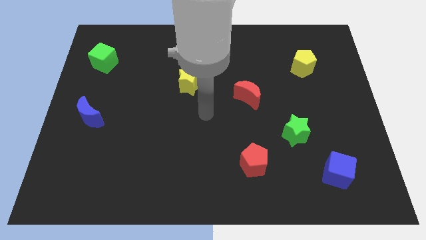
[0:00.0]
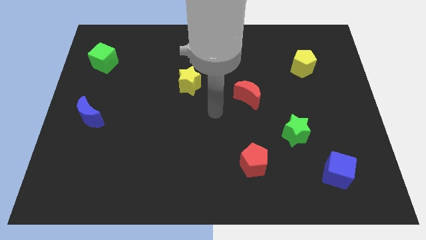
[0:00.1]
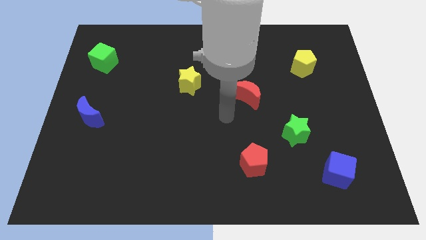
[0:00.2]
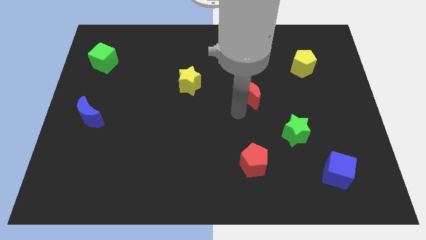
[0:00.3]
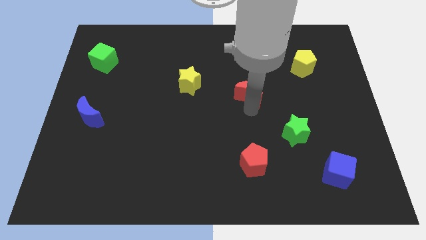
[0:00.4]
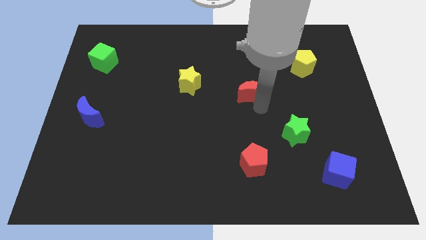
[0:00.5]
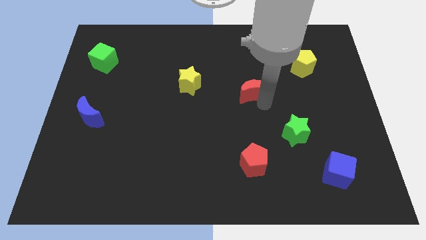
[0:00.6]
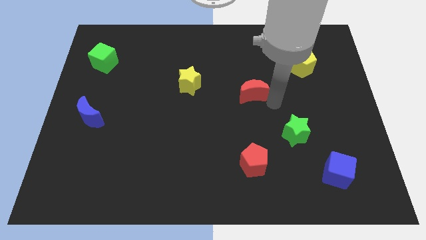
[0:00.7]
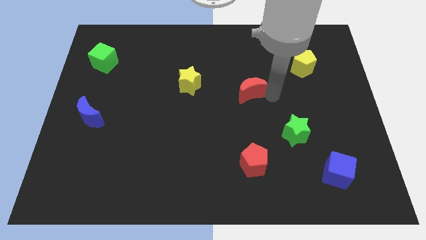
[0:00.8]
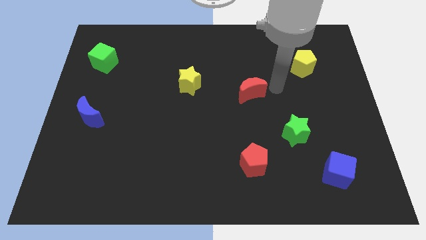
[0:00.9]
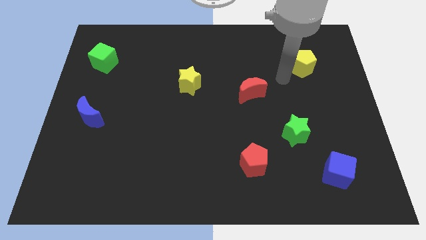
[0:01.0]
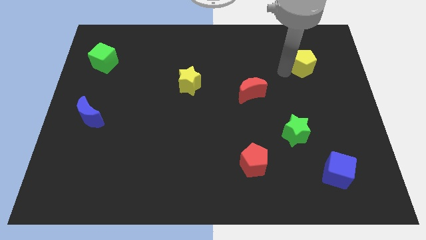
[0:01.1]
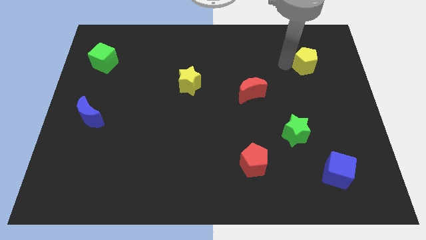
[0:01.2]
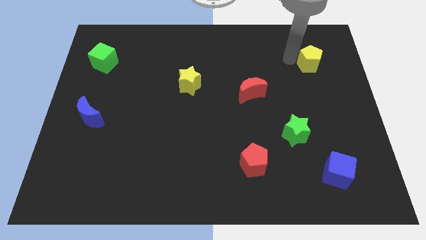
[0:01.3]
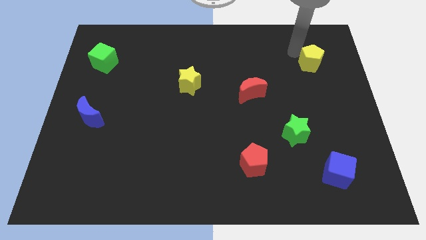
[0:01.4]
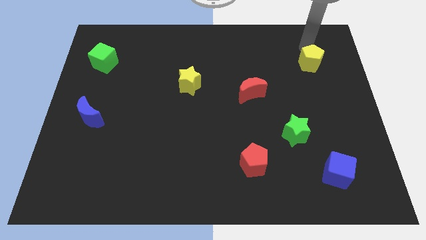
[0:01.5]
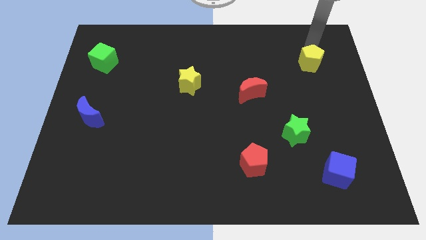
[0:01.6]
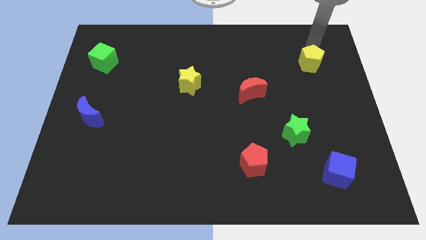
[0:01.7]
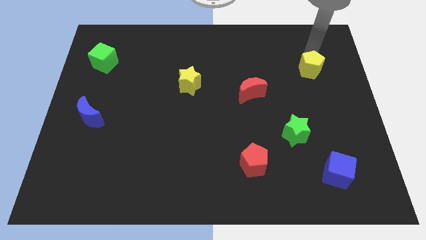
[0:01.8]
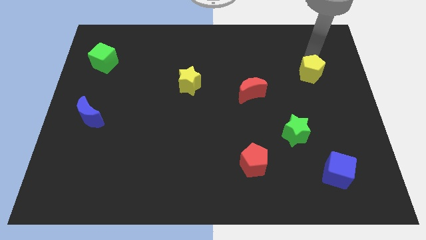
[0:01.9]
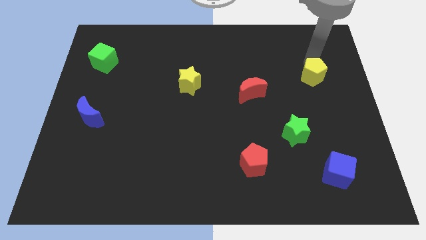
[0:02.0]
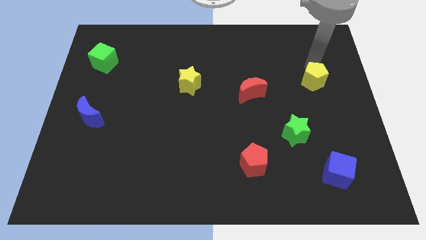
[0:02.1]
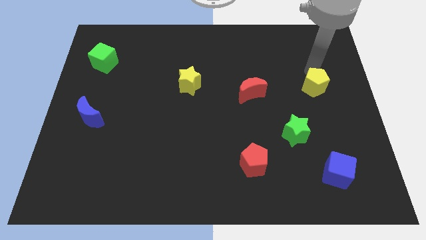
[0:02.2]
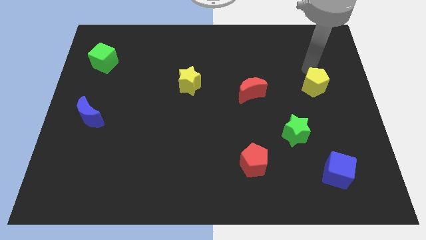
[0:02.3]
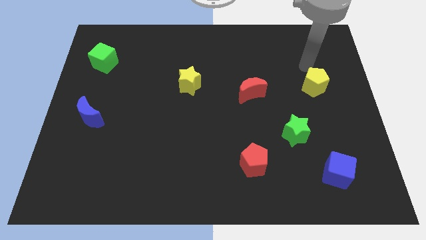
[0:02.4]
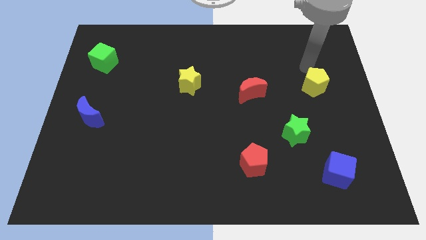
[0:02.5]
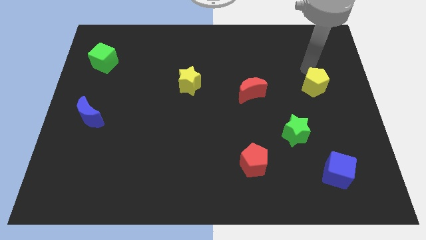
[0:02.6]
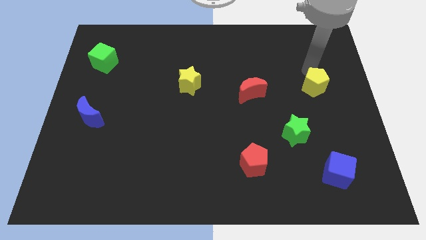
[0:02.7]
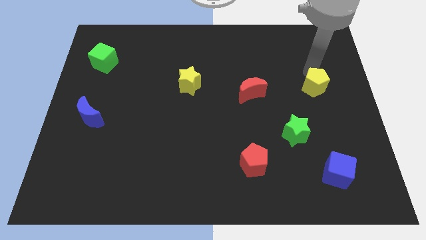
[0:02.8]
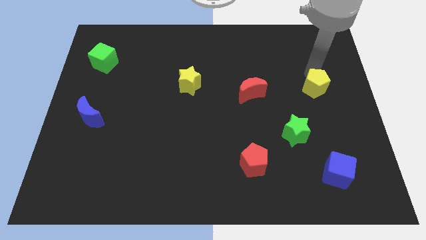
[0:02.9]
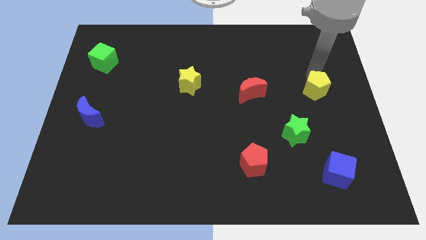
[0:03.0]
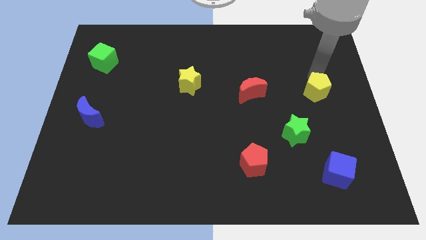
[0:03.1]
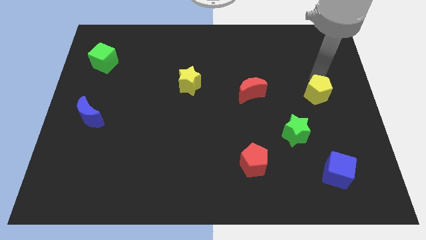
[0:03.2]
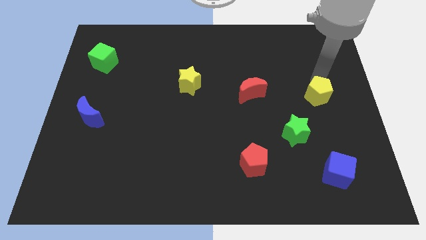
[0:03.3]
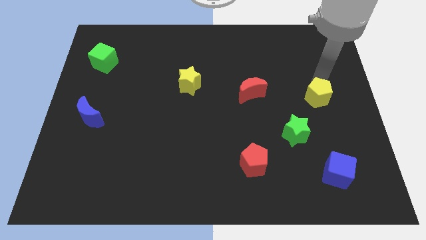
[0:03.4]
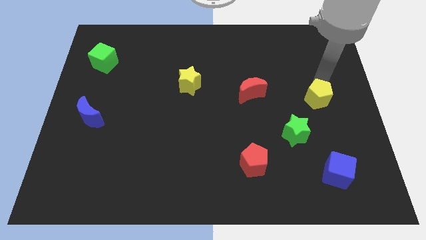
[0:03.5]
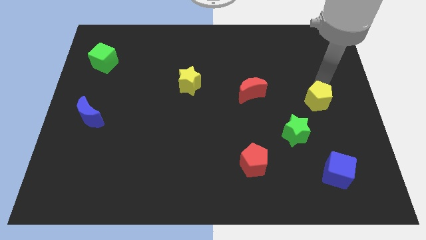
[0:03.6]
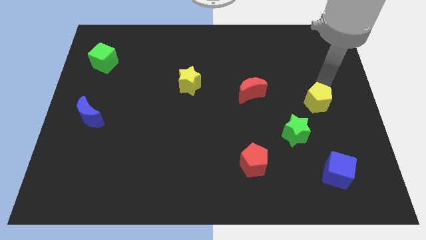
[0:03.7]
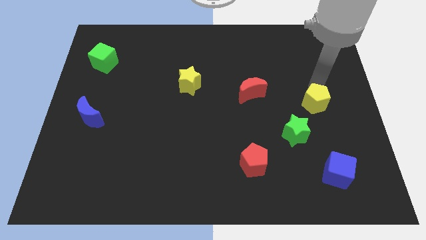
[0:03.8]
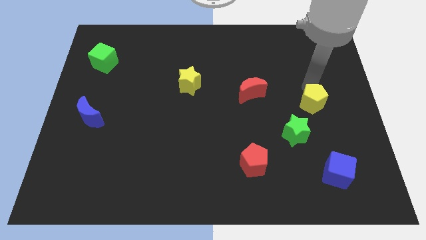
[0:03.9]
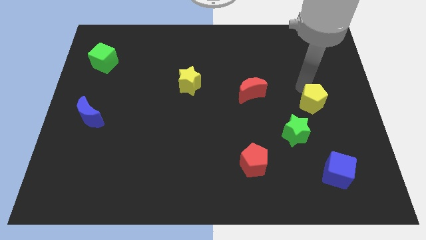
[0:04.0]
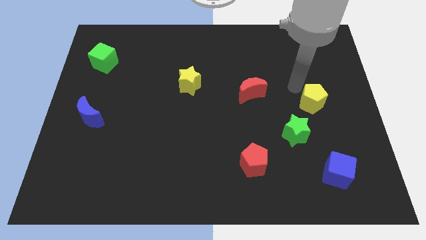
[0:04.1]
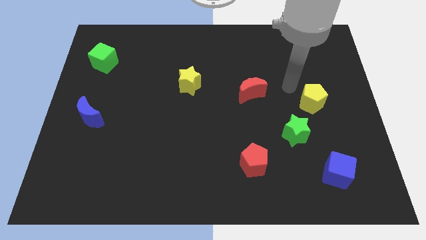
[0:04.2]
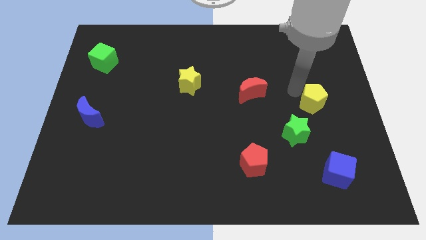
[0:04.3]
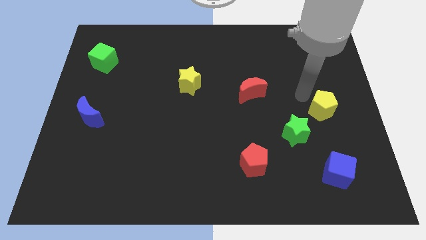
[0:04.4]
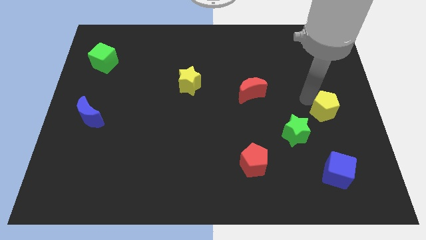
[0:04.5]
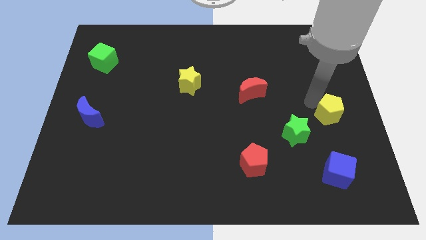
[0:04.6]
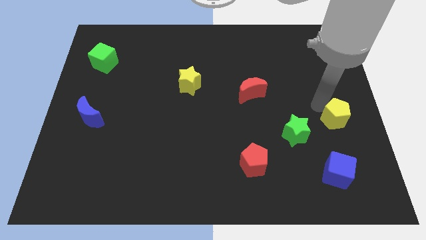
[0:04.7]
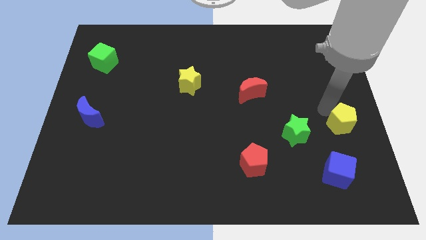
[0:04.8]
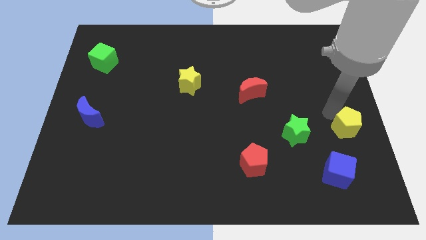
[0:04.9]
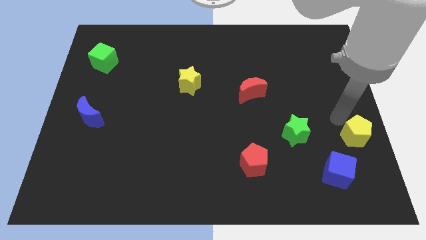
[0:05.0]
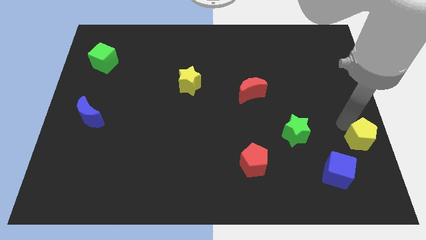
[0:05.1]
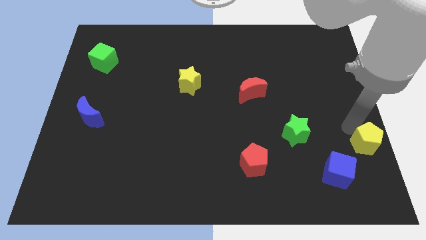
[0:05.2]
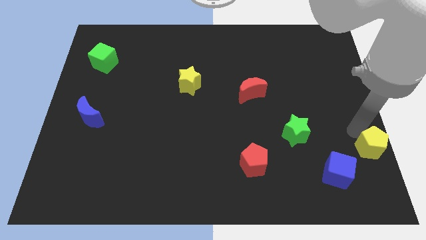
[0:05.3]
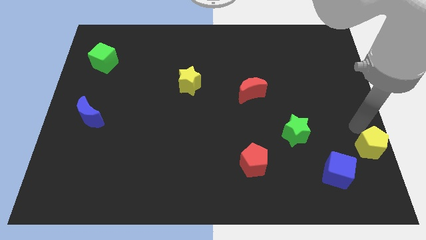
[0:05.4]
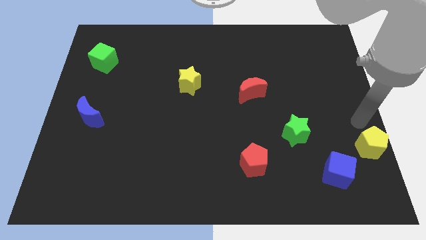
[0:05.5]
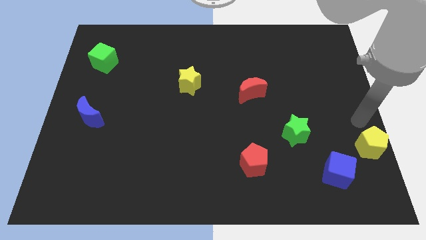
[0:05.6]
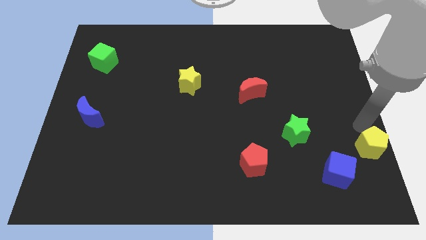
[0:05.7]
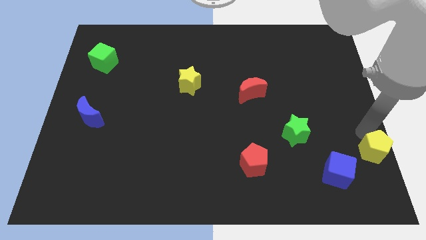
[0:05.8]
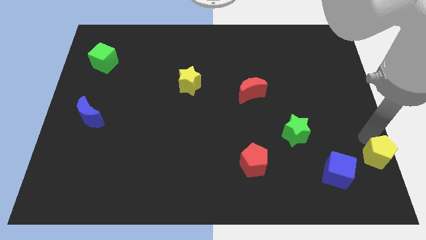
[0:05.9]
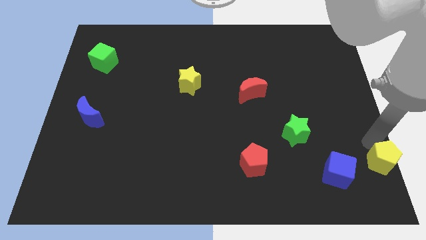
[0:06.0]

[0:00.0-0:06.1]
push the yellow pentagon to the lower right corner
